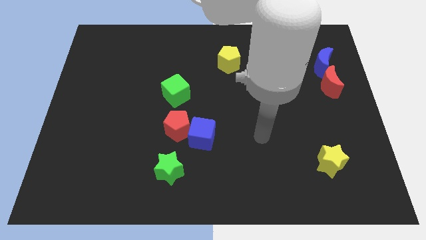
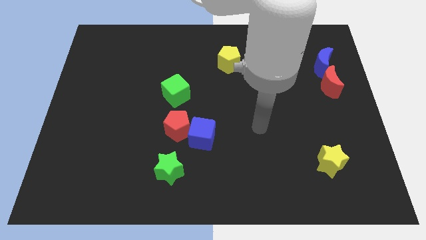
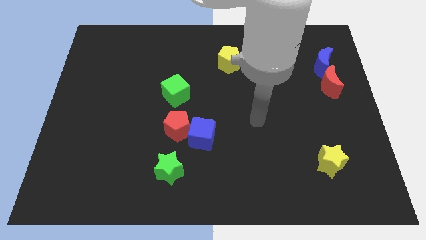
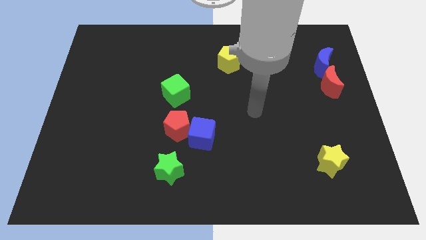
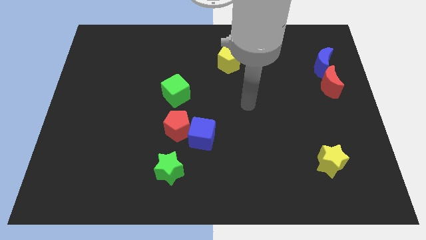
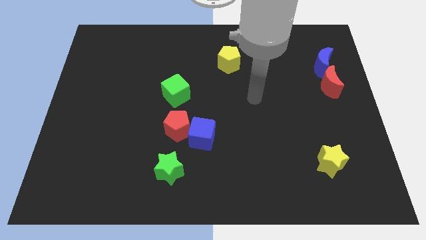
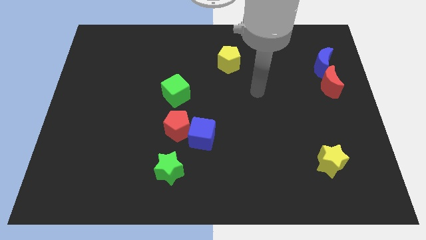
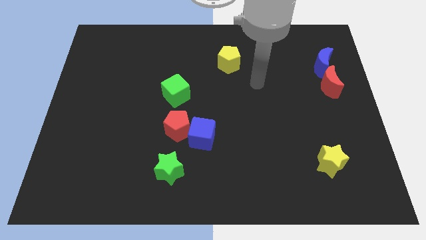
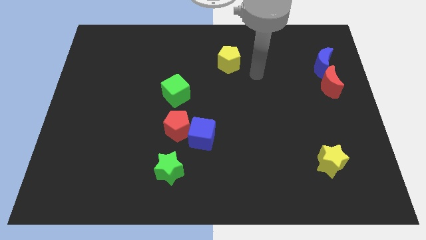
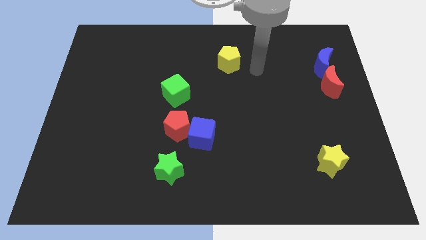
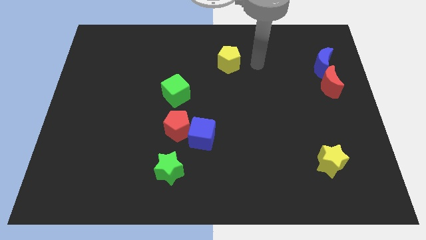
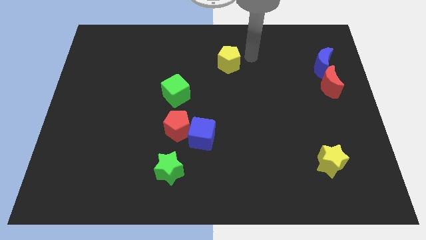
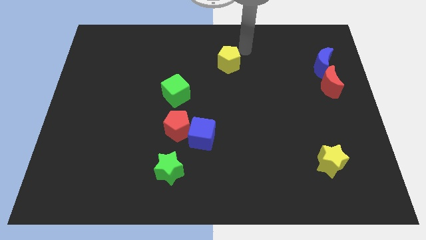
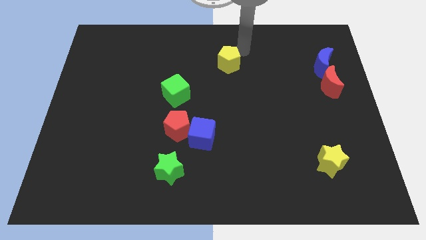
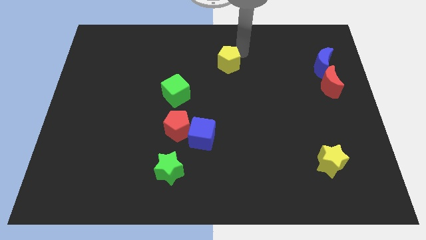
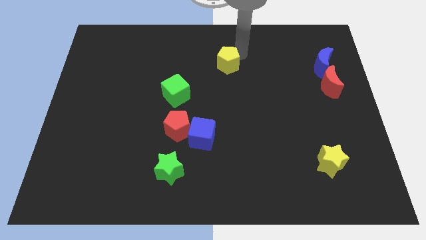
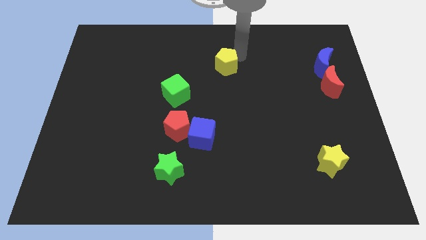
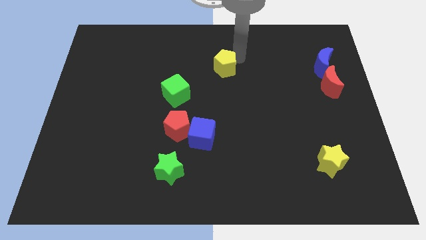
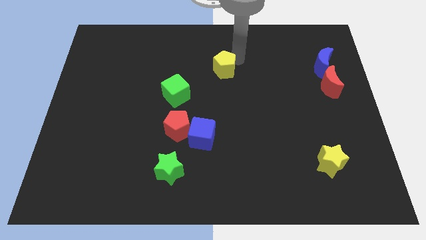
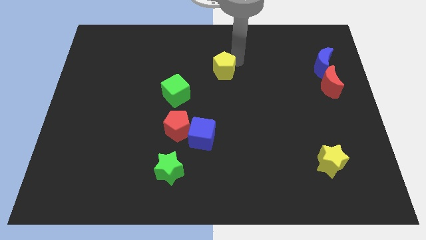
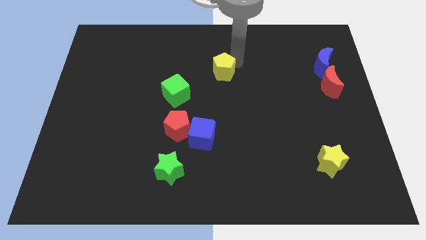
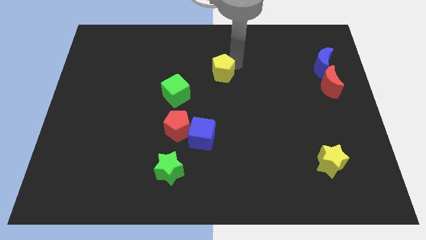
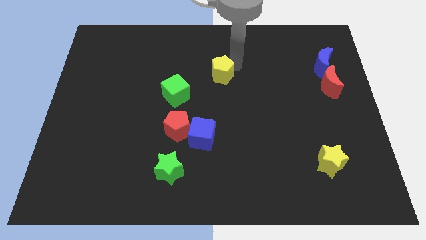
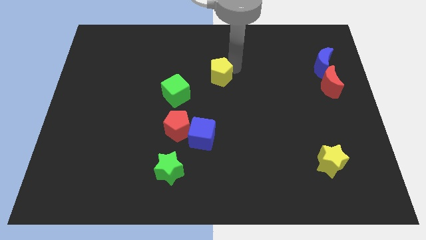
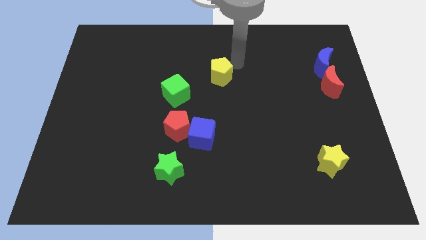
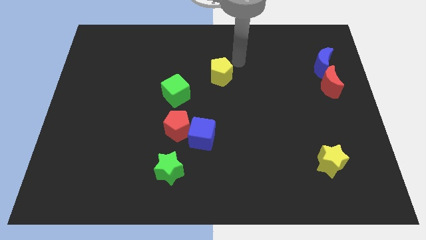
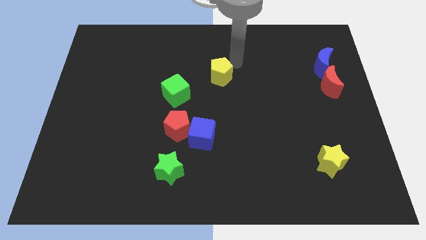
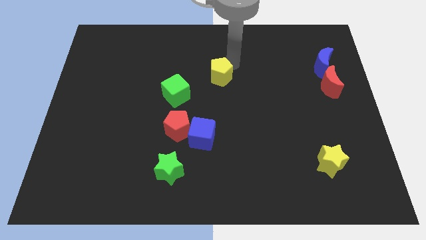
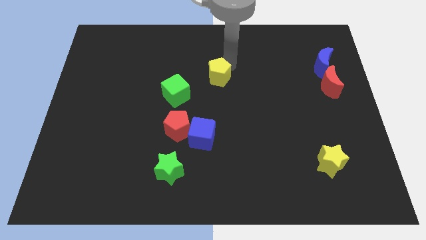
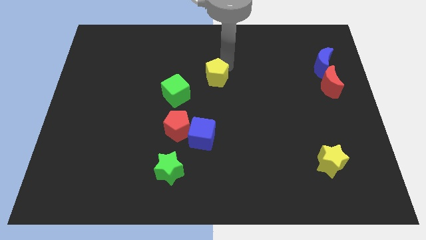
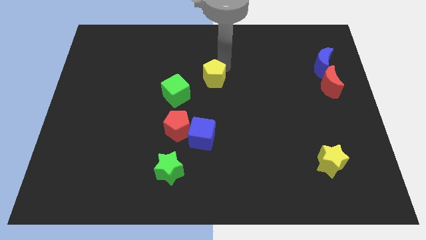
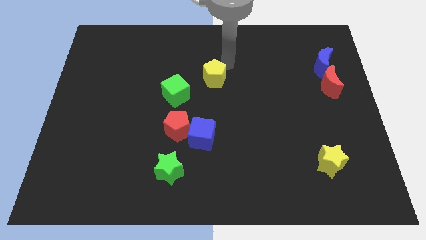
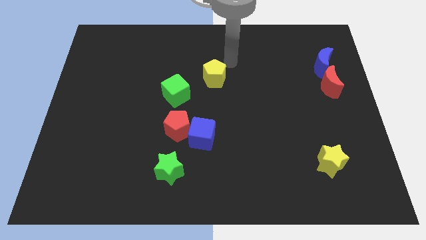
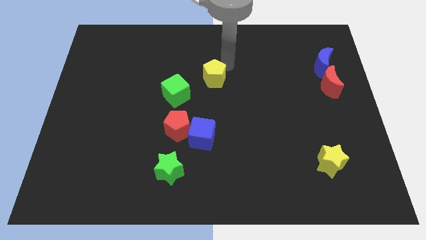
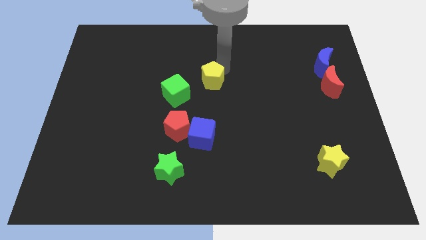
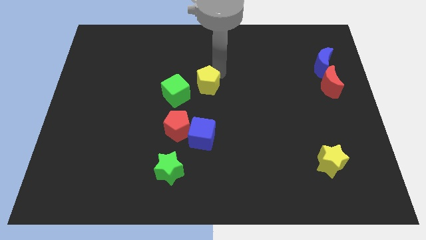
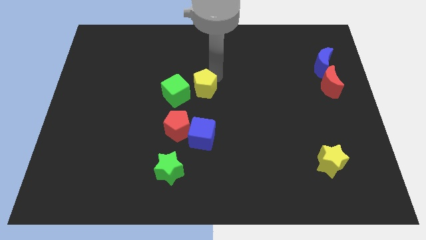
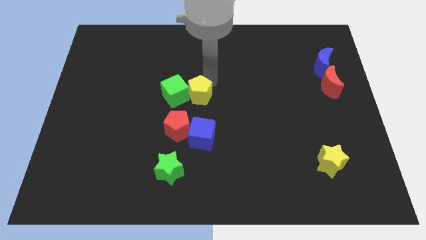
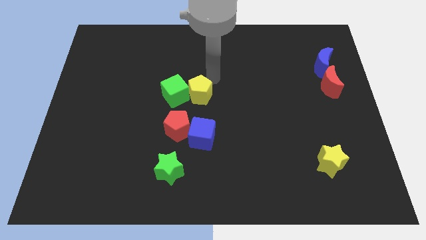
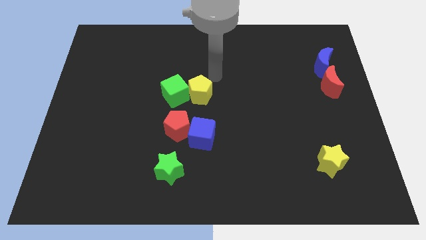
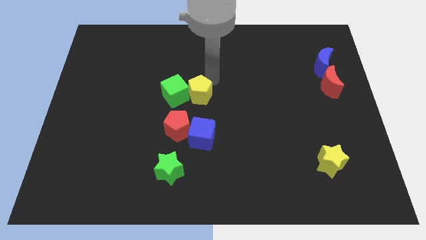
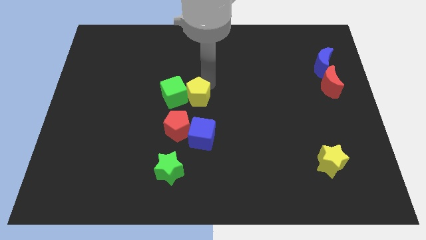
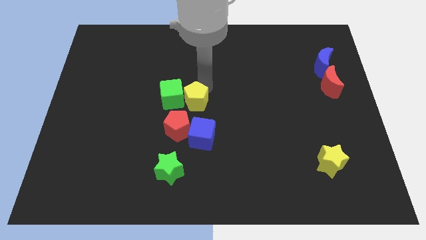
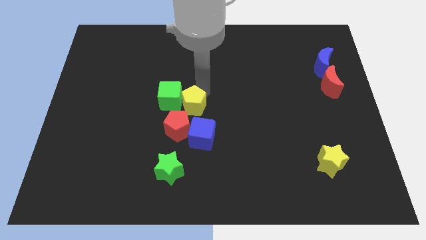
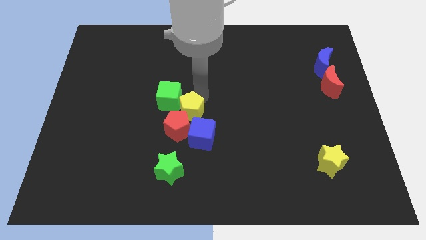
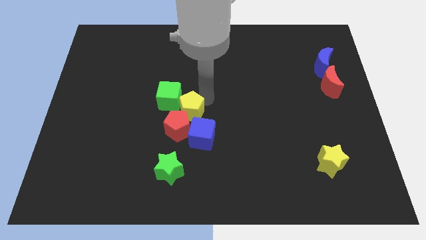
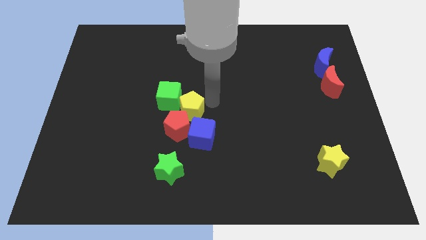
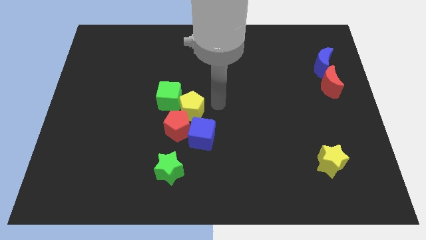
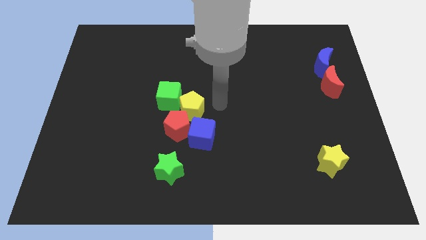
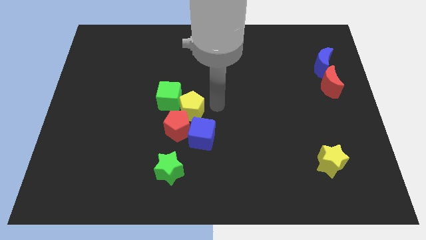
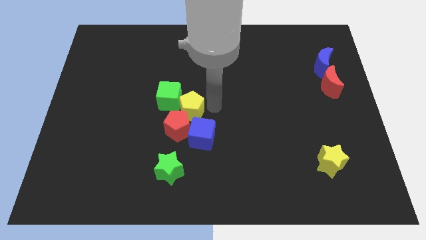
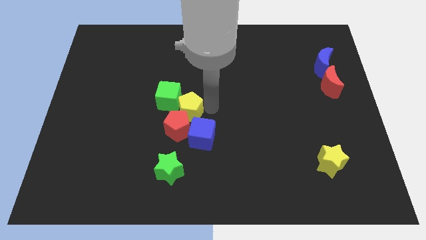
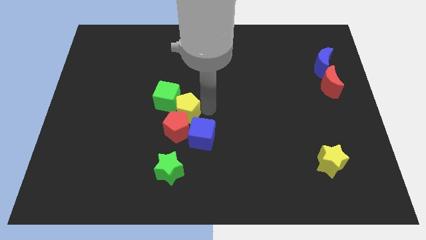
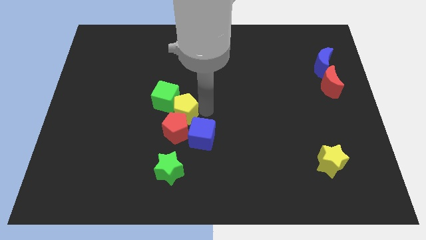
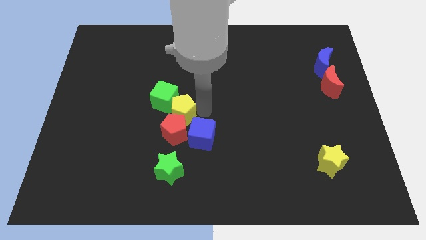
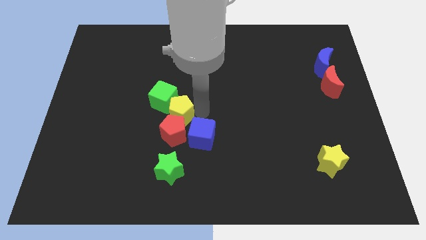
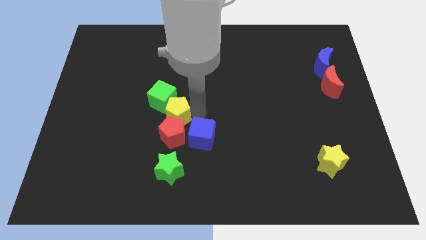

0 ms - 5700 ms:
push the yellow pentagon diagonally downwards and left

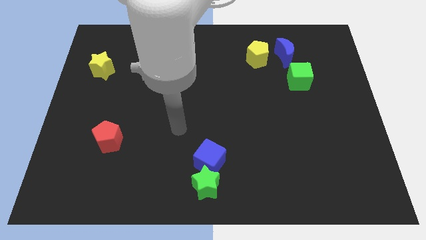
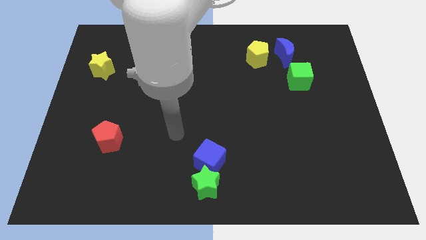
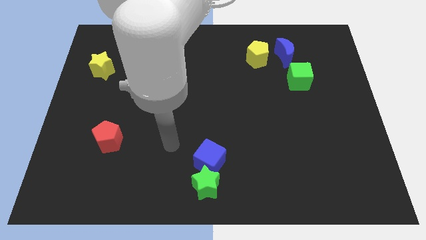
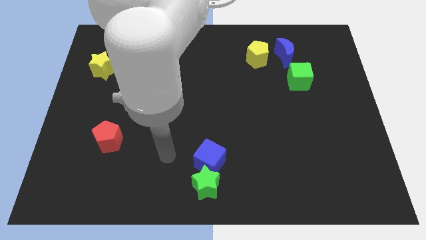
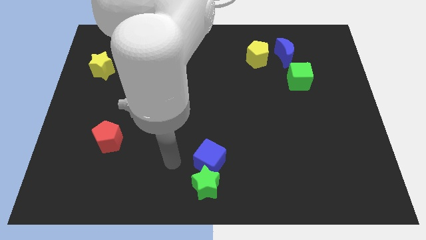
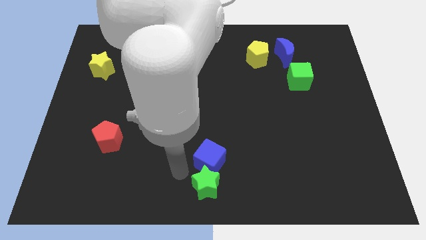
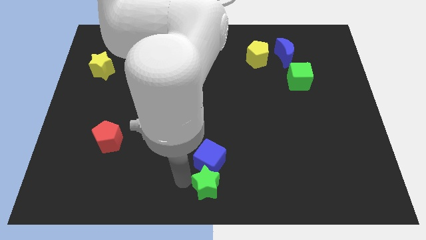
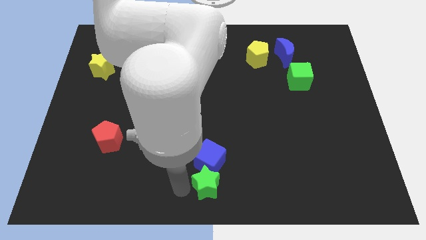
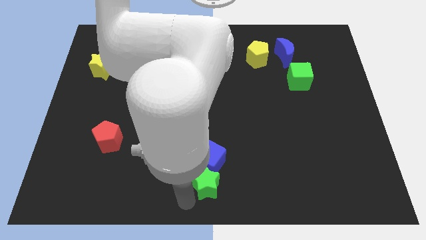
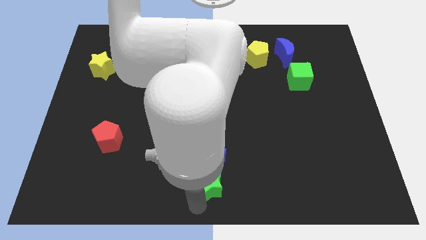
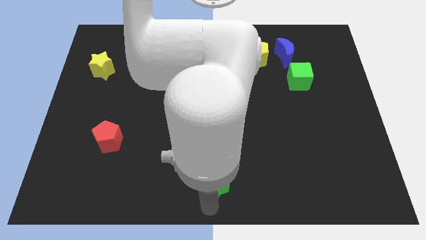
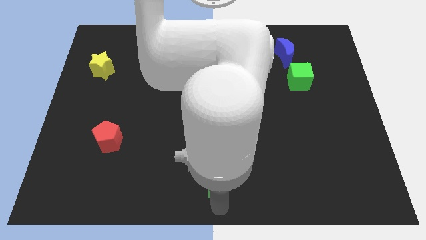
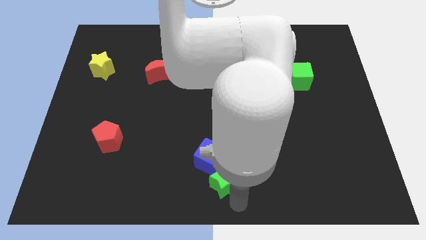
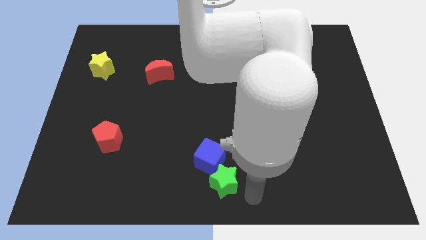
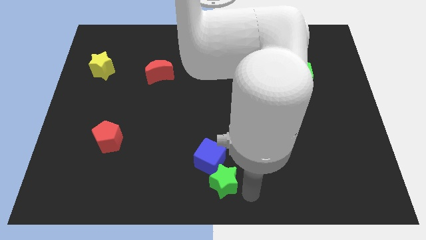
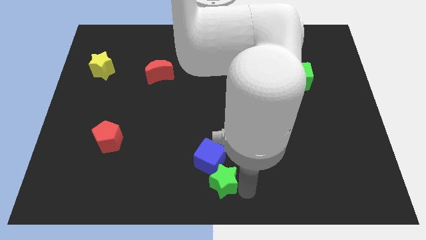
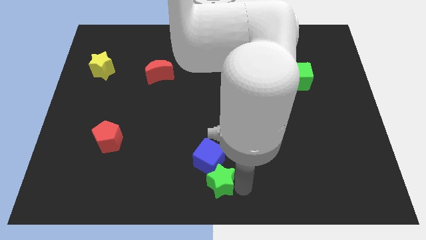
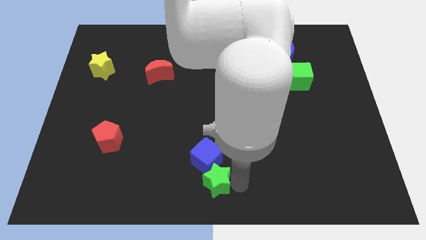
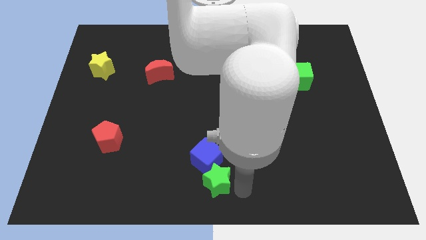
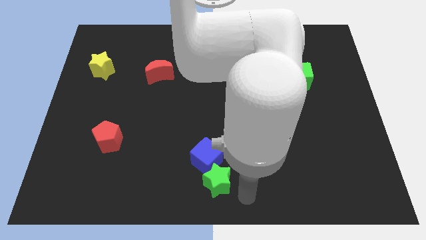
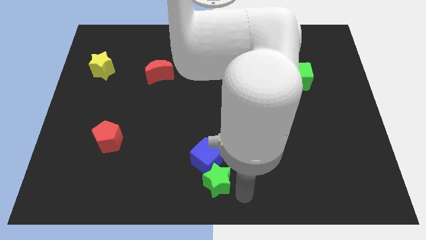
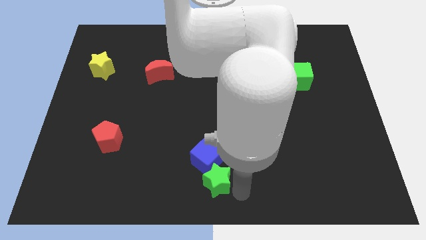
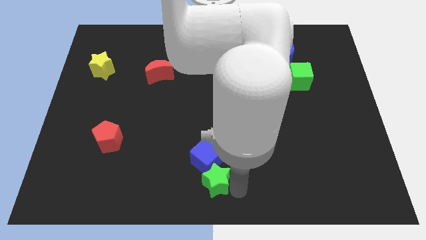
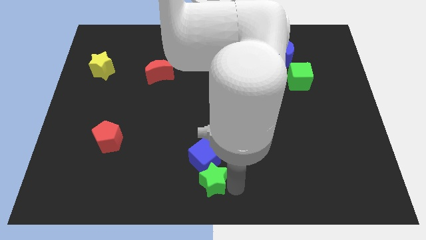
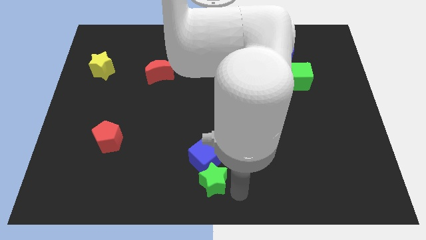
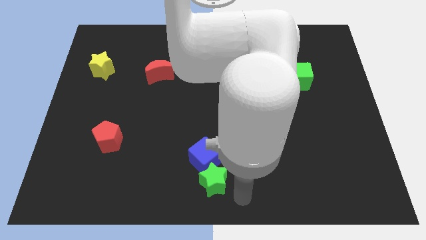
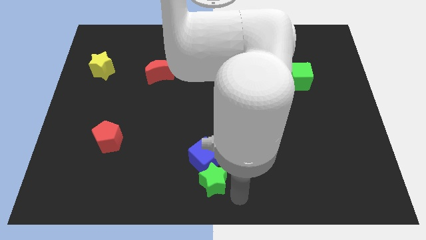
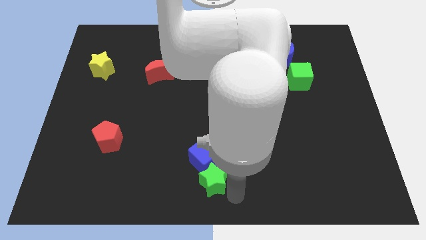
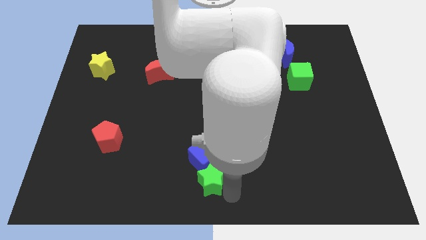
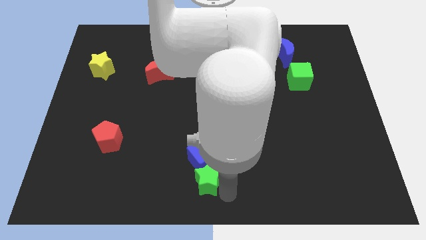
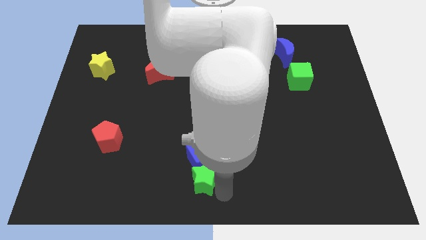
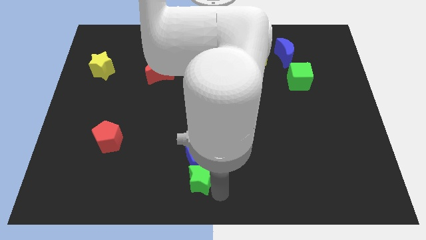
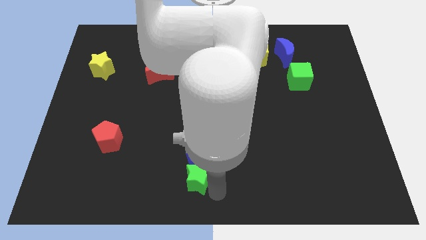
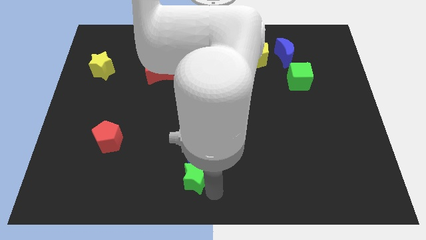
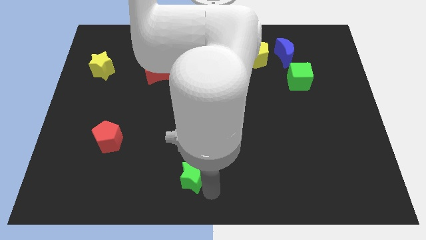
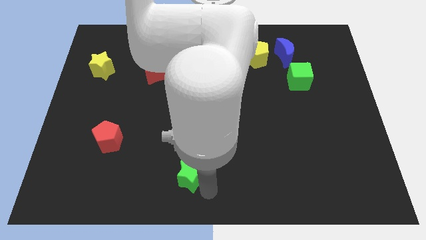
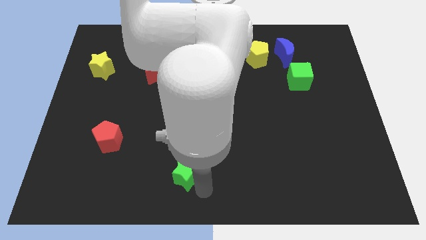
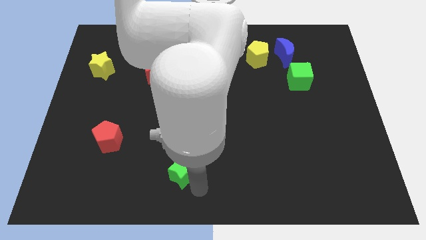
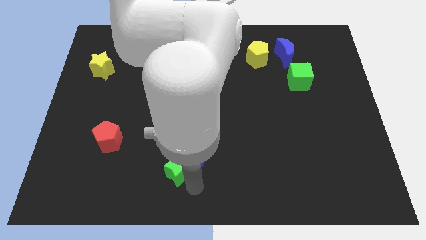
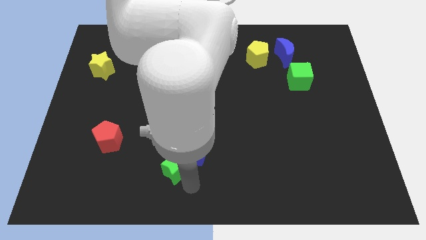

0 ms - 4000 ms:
move the green star up and then to the left a little bit
